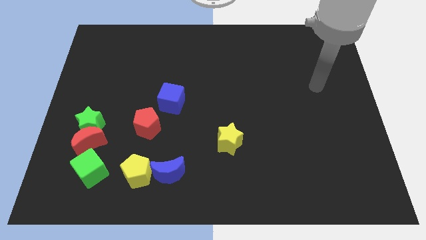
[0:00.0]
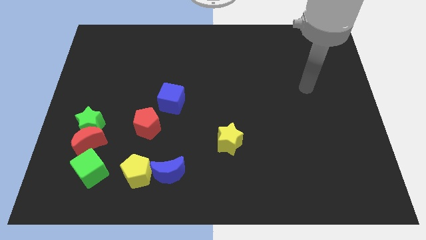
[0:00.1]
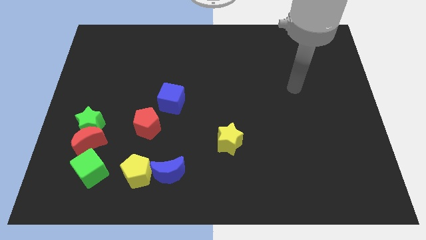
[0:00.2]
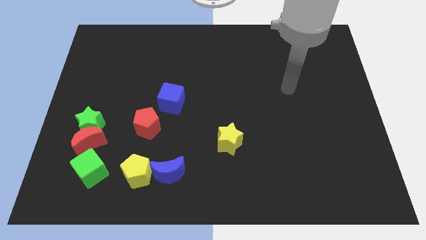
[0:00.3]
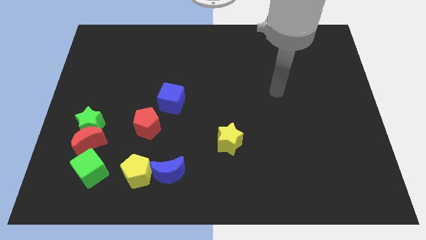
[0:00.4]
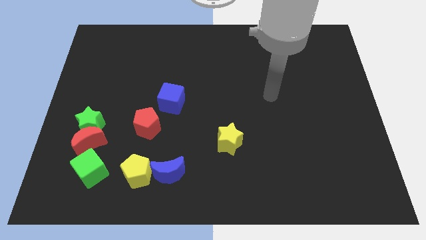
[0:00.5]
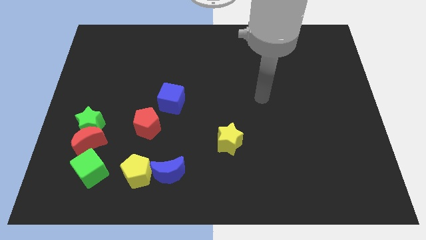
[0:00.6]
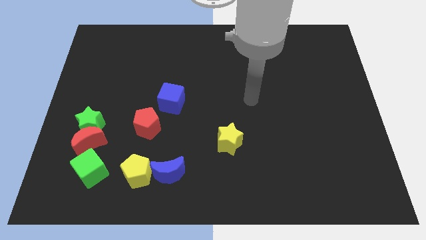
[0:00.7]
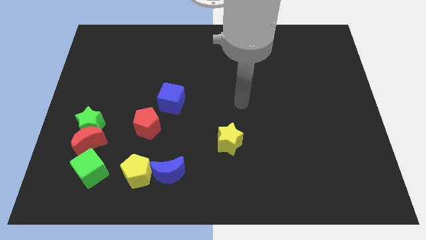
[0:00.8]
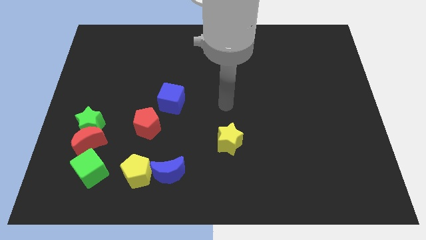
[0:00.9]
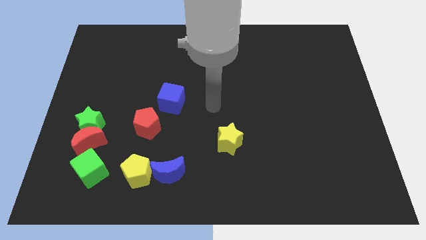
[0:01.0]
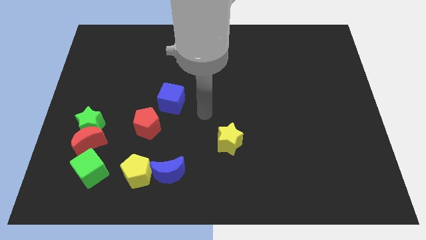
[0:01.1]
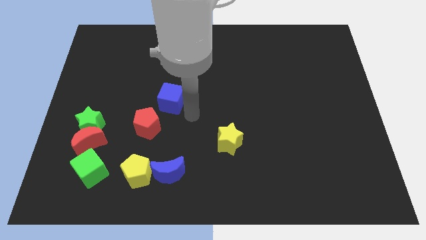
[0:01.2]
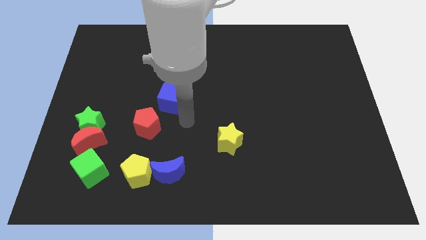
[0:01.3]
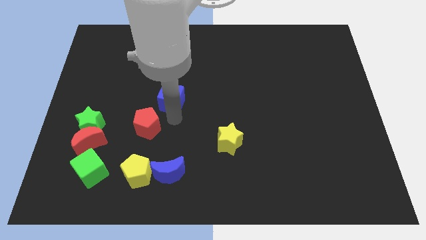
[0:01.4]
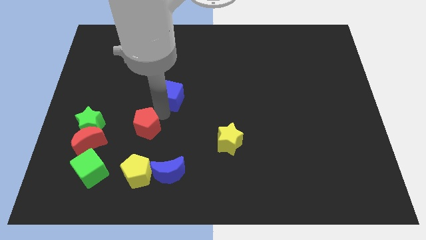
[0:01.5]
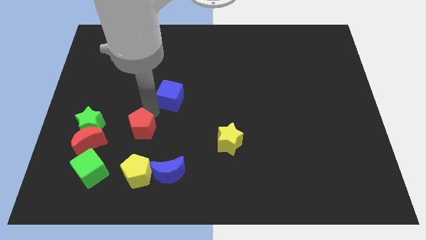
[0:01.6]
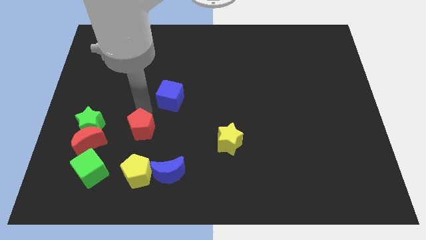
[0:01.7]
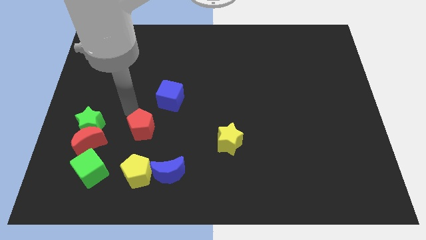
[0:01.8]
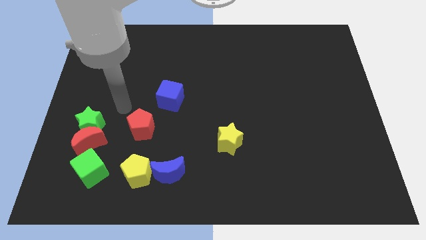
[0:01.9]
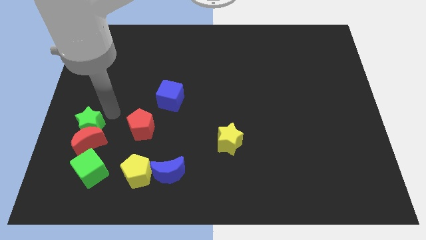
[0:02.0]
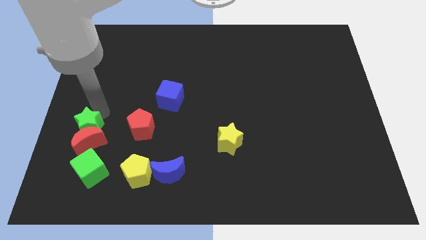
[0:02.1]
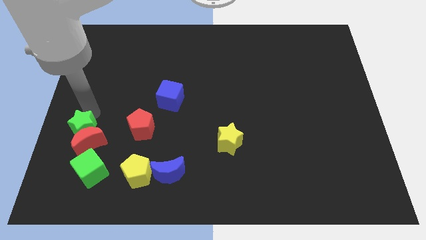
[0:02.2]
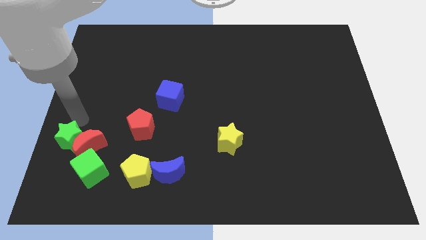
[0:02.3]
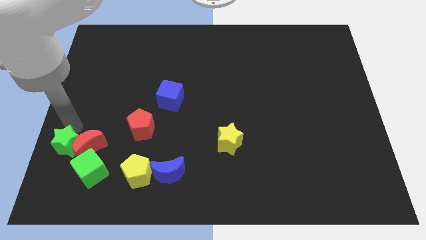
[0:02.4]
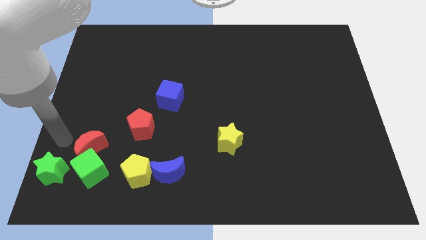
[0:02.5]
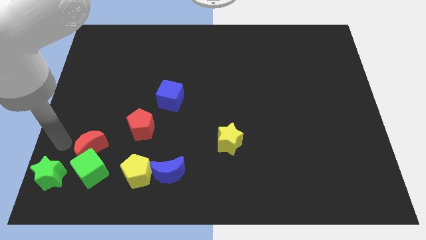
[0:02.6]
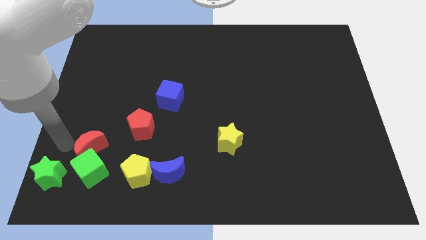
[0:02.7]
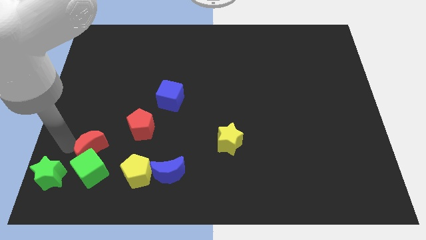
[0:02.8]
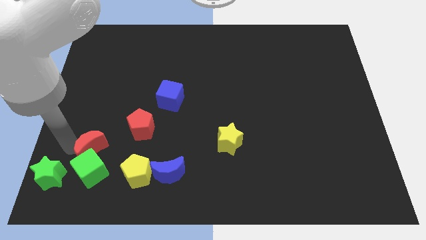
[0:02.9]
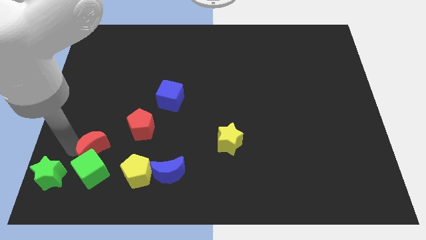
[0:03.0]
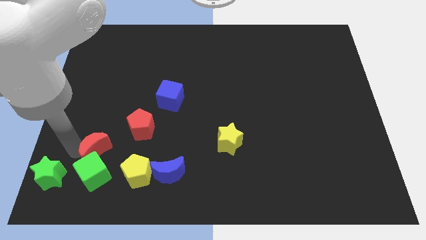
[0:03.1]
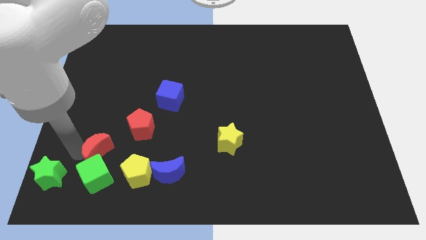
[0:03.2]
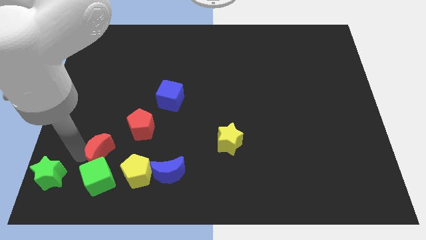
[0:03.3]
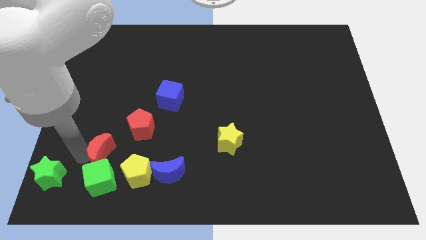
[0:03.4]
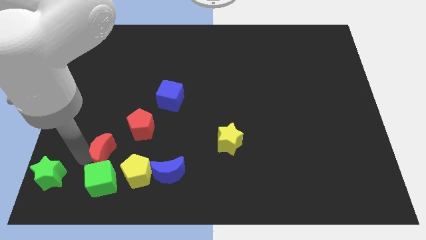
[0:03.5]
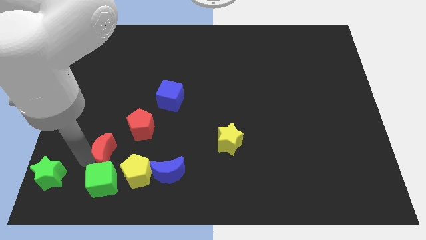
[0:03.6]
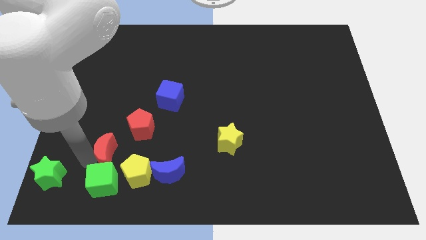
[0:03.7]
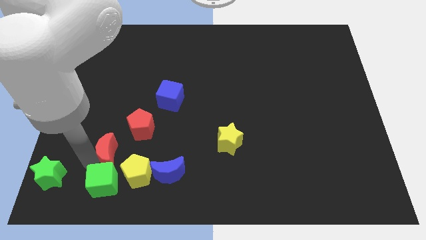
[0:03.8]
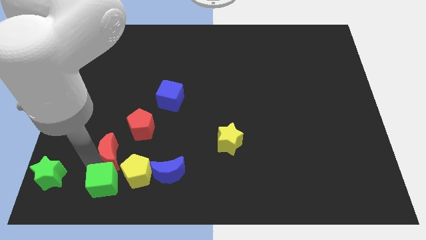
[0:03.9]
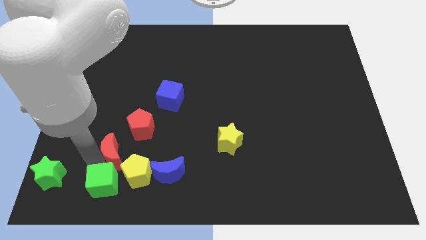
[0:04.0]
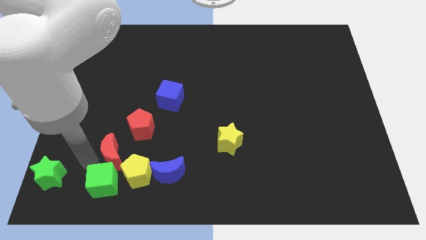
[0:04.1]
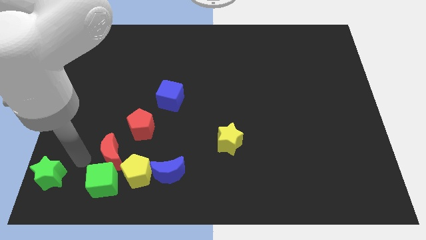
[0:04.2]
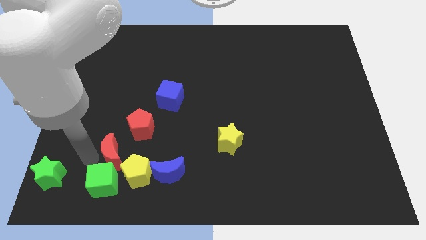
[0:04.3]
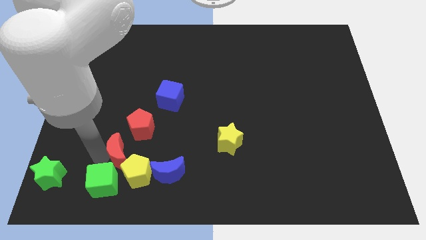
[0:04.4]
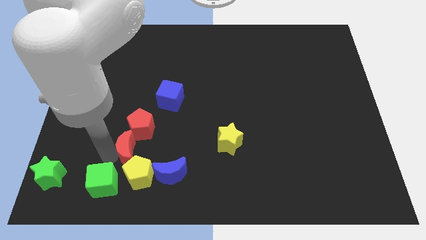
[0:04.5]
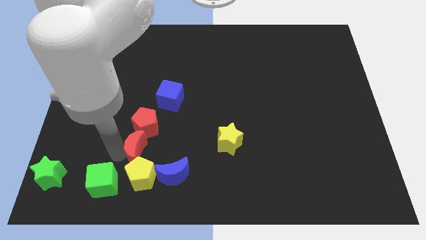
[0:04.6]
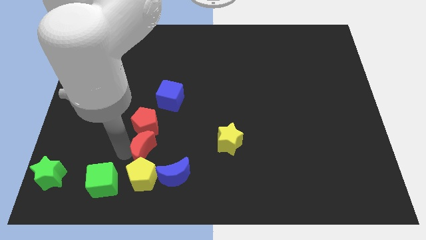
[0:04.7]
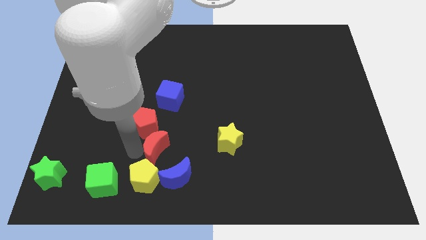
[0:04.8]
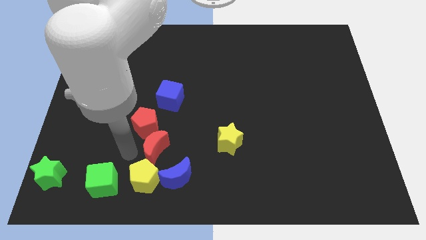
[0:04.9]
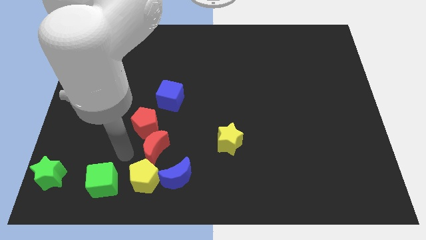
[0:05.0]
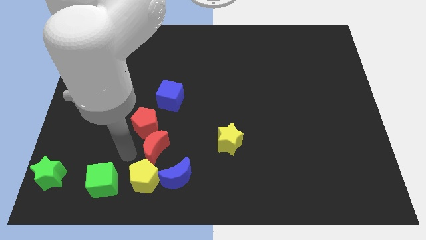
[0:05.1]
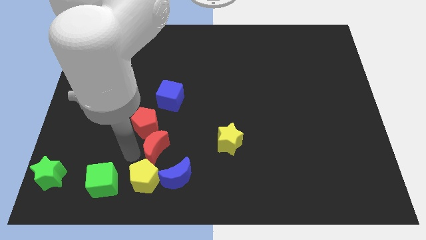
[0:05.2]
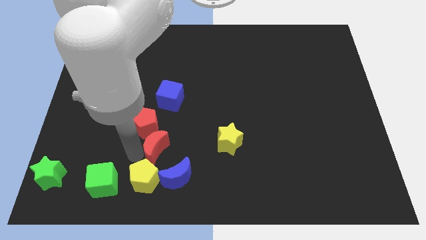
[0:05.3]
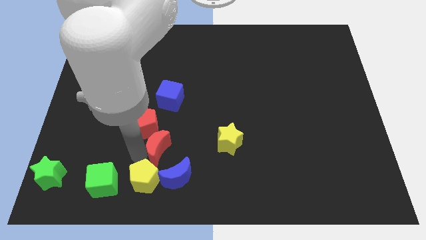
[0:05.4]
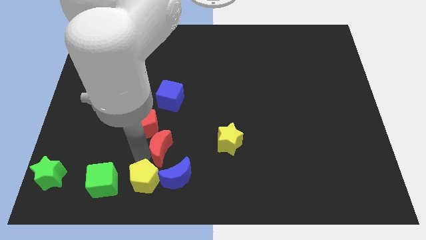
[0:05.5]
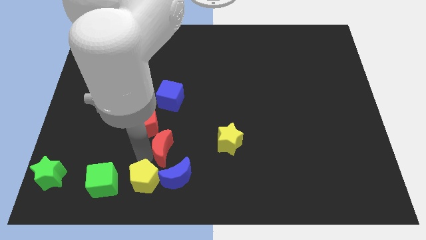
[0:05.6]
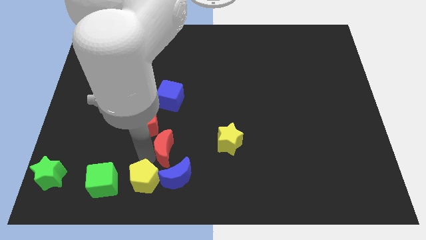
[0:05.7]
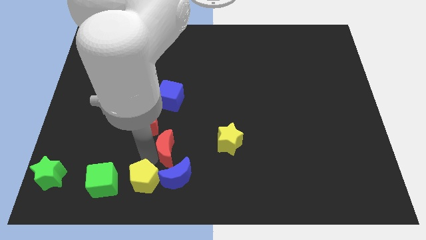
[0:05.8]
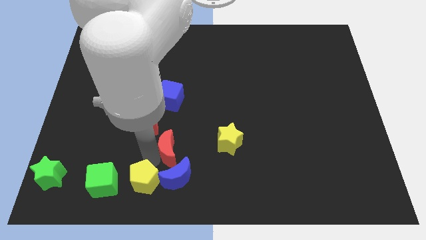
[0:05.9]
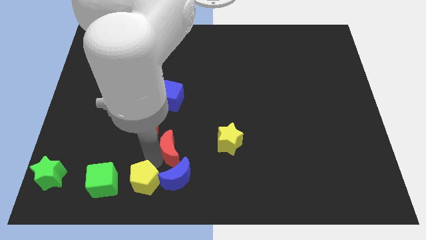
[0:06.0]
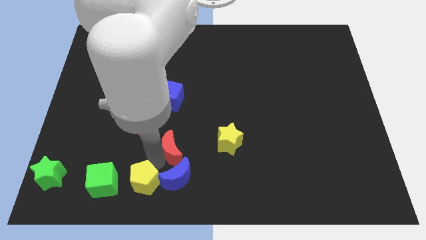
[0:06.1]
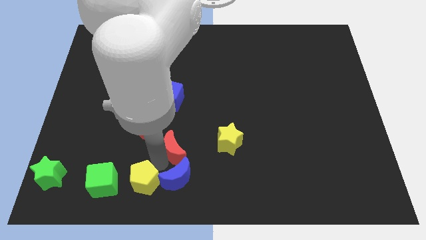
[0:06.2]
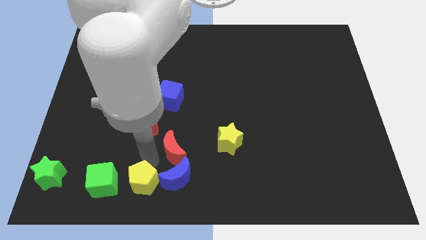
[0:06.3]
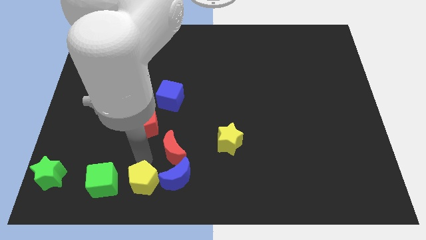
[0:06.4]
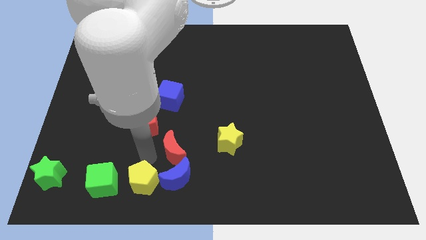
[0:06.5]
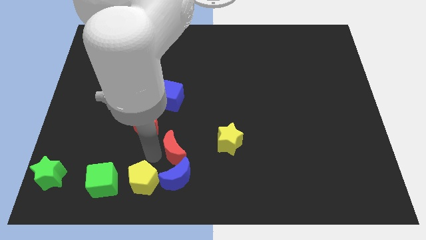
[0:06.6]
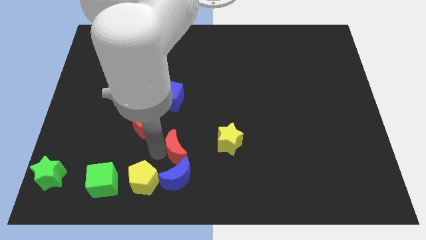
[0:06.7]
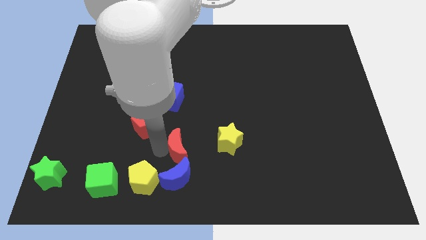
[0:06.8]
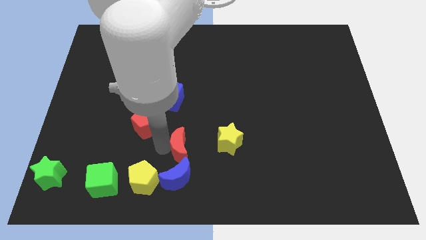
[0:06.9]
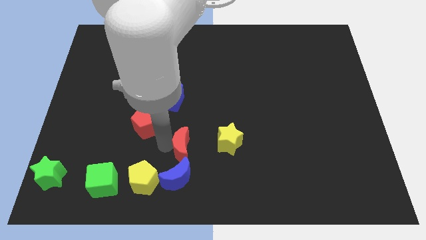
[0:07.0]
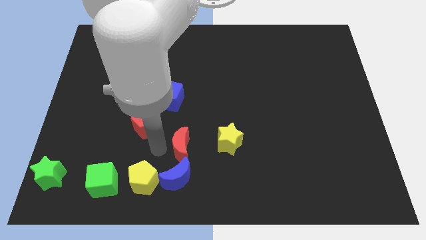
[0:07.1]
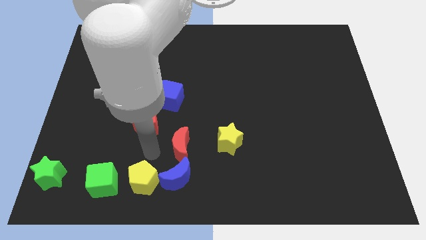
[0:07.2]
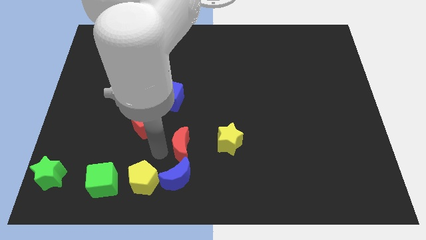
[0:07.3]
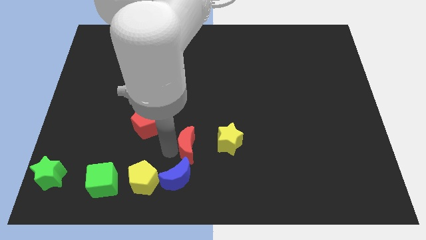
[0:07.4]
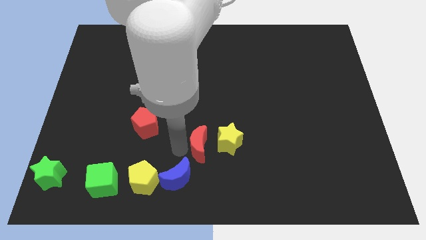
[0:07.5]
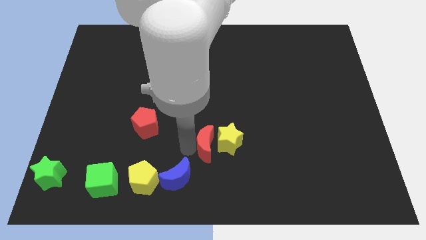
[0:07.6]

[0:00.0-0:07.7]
put the red moon towards the yellow star
